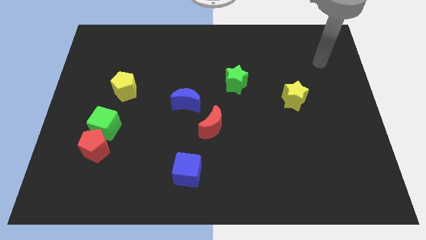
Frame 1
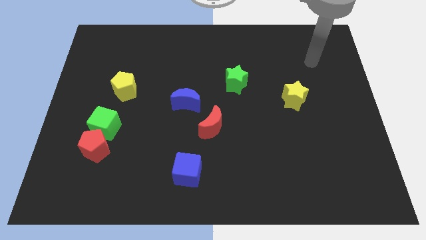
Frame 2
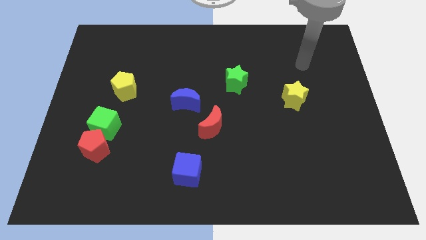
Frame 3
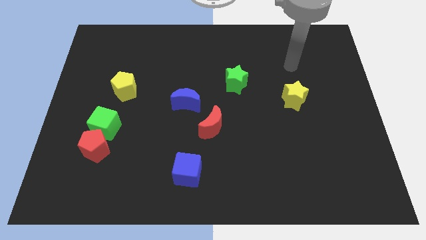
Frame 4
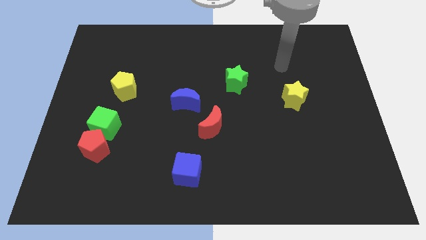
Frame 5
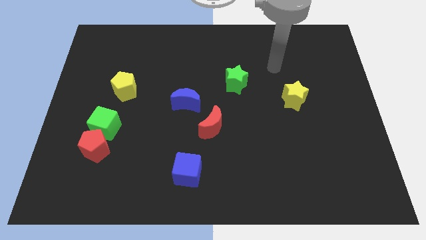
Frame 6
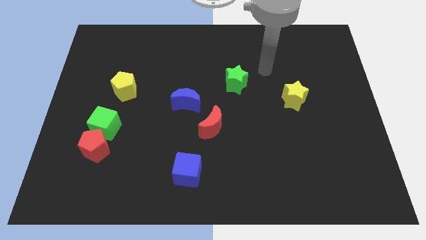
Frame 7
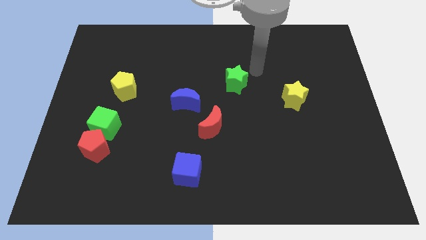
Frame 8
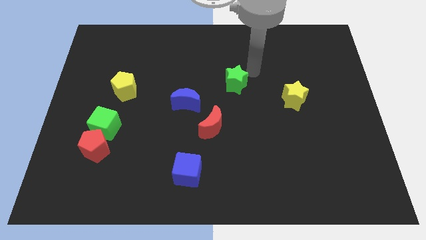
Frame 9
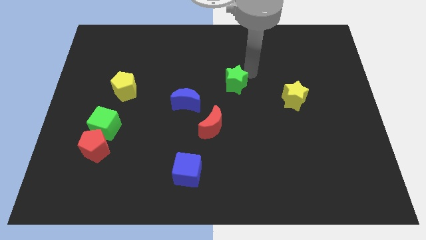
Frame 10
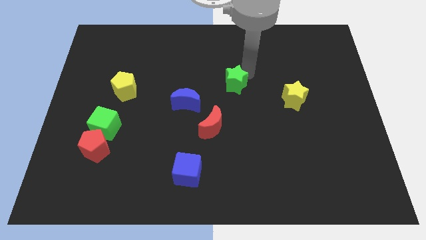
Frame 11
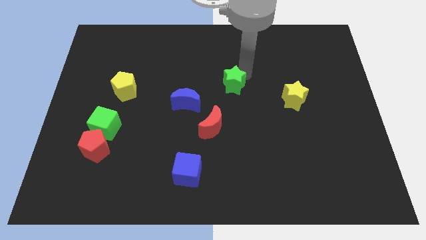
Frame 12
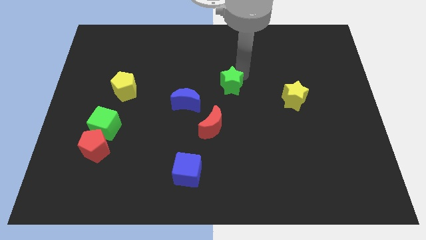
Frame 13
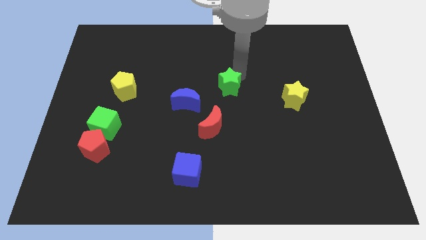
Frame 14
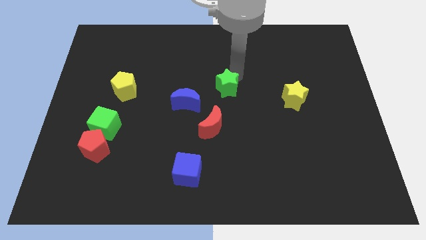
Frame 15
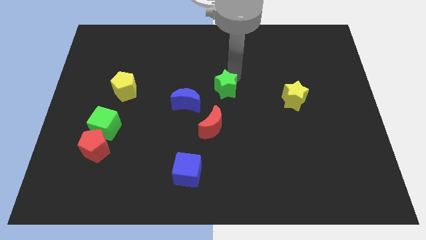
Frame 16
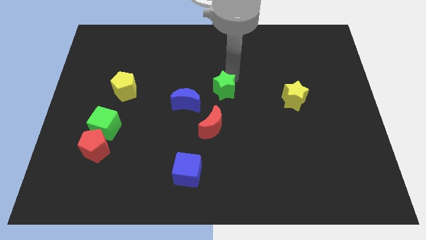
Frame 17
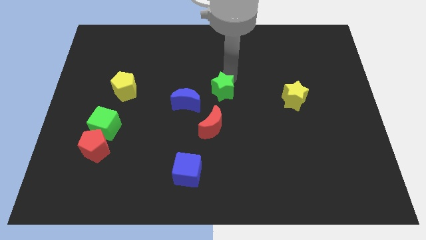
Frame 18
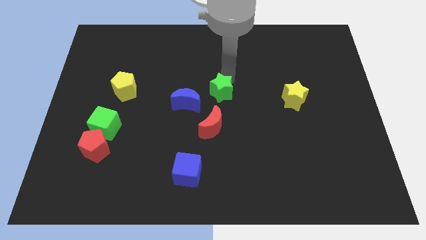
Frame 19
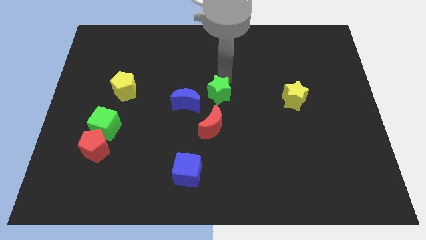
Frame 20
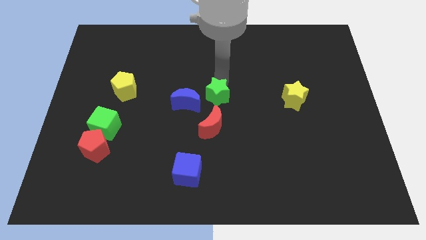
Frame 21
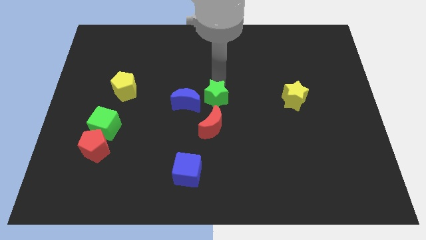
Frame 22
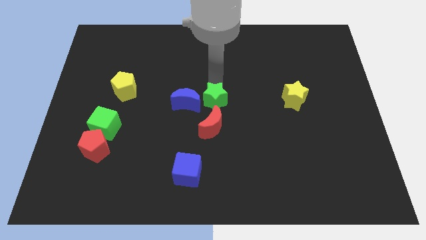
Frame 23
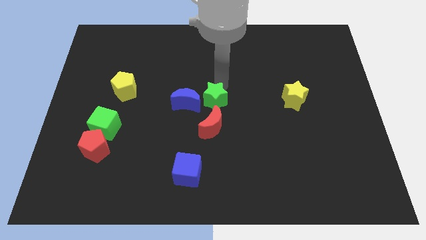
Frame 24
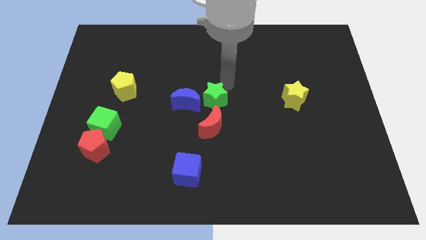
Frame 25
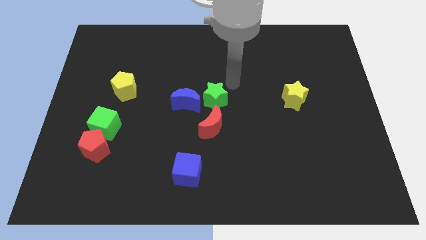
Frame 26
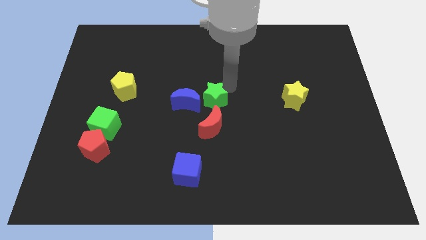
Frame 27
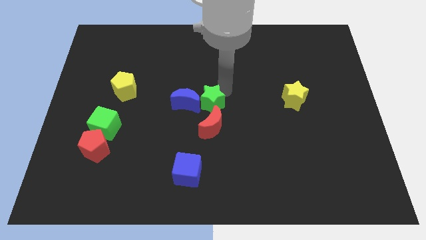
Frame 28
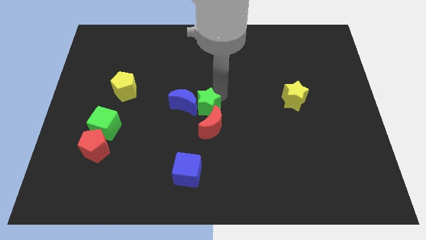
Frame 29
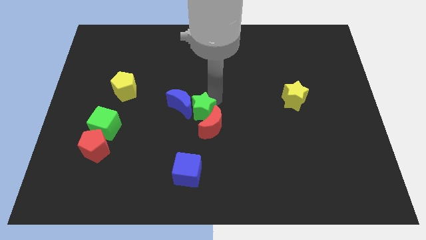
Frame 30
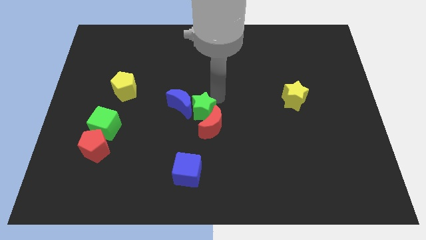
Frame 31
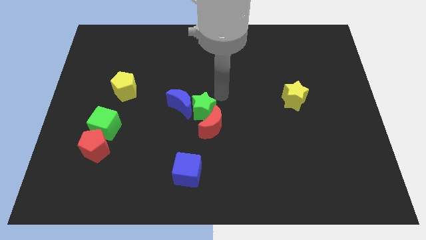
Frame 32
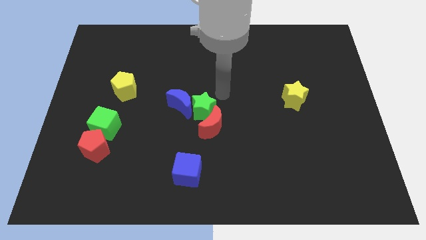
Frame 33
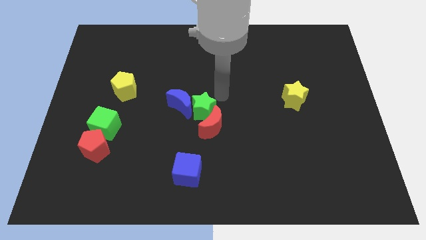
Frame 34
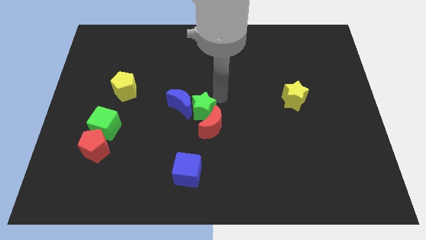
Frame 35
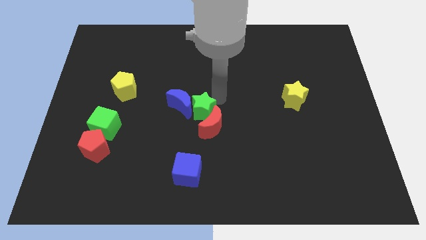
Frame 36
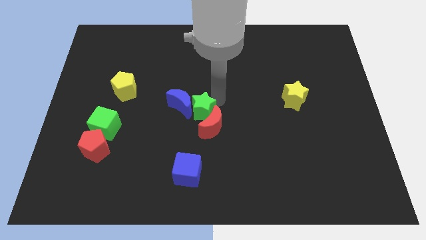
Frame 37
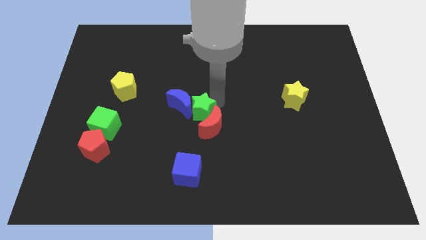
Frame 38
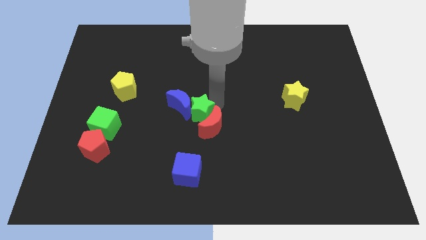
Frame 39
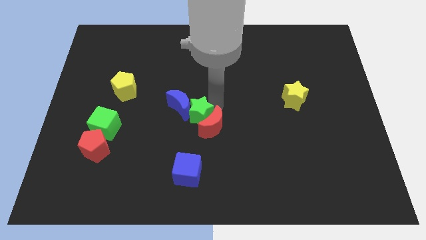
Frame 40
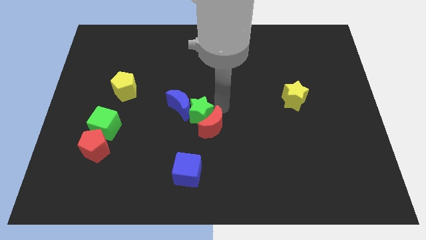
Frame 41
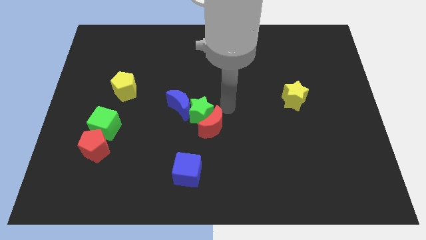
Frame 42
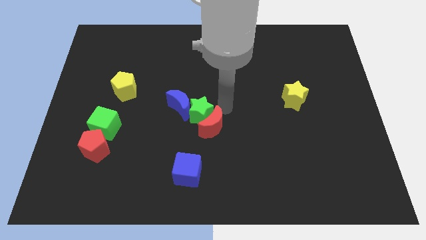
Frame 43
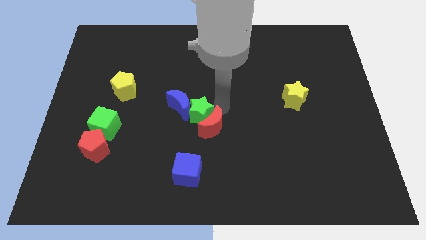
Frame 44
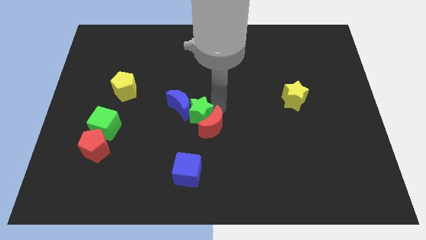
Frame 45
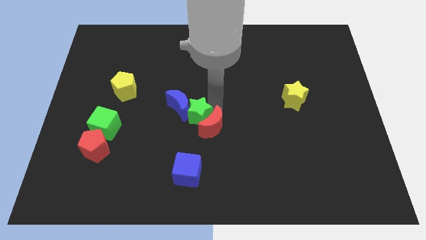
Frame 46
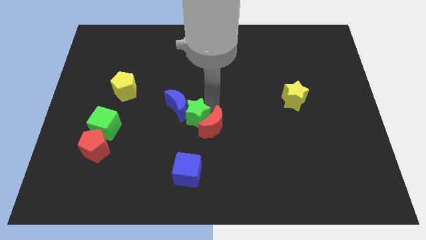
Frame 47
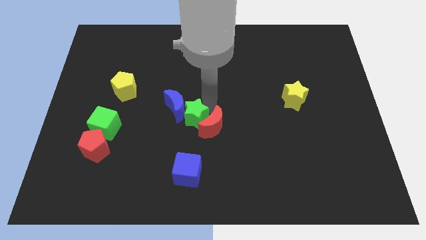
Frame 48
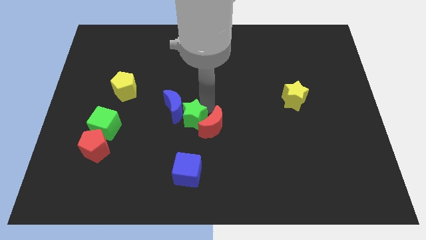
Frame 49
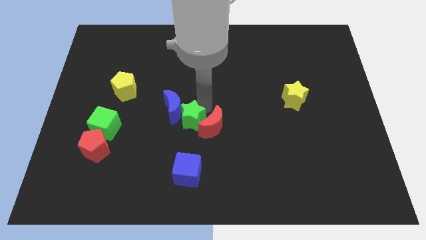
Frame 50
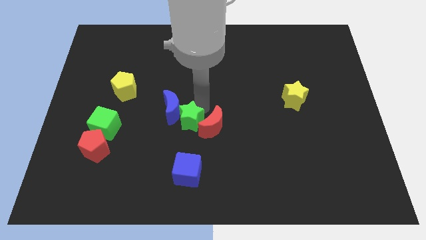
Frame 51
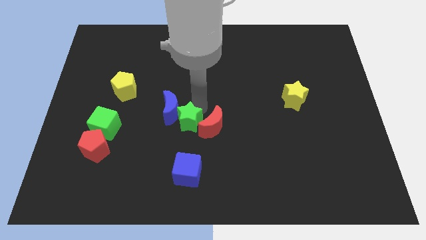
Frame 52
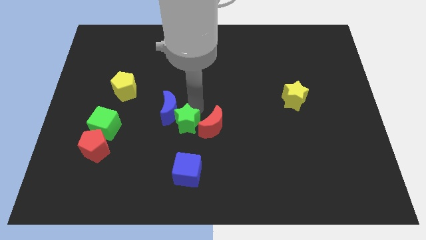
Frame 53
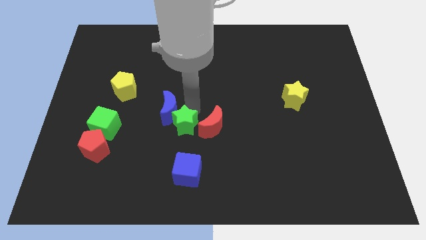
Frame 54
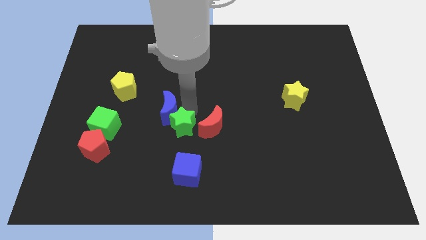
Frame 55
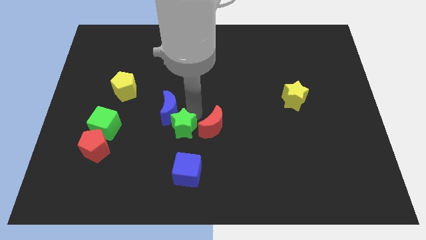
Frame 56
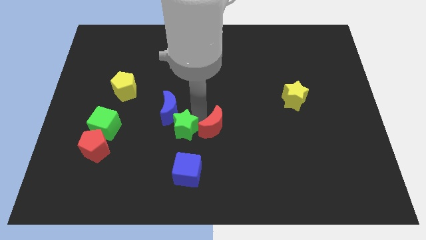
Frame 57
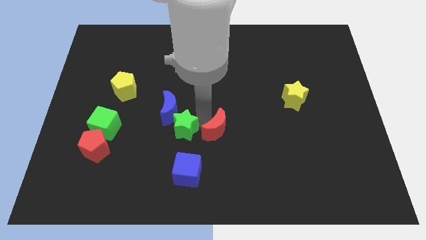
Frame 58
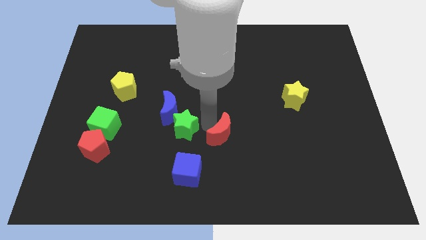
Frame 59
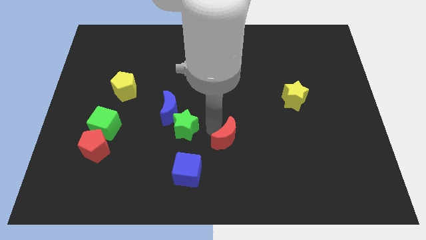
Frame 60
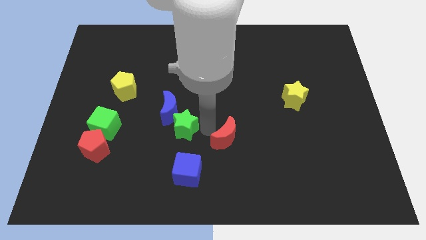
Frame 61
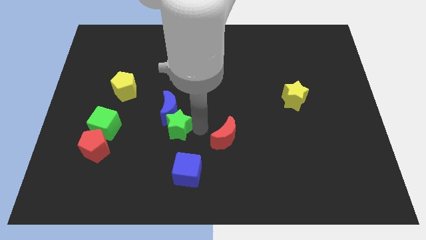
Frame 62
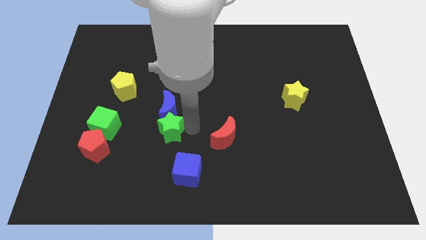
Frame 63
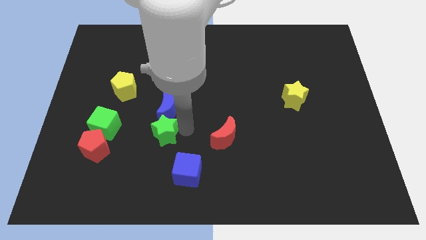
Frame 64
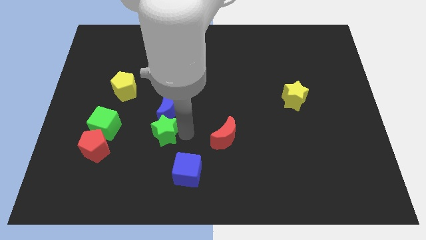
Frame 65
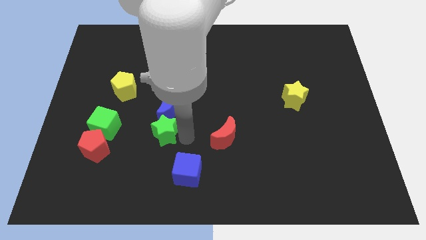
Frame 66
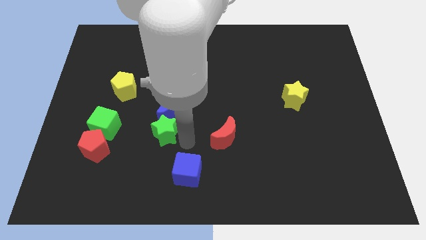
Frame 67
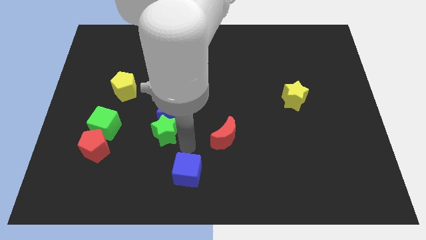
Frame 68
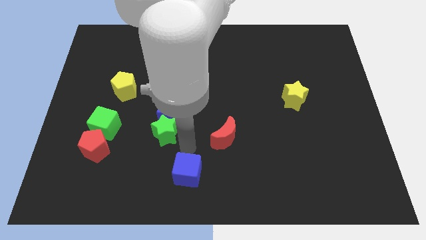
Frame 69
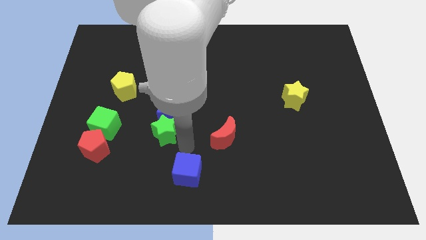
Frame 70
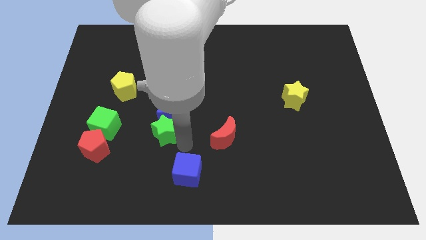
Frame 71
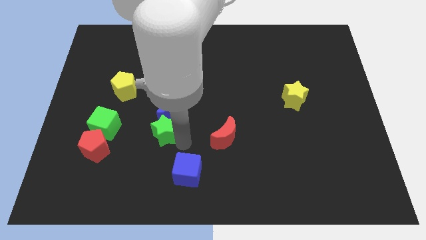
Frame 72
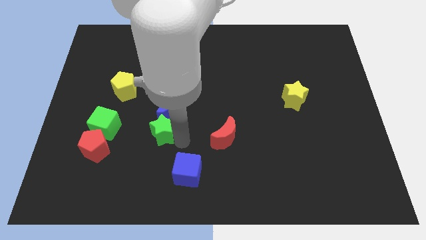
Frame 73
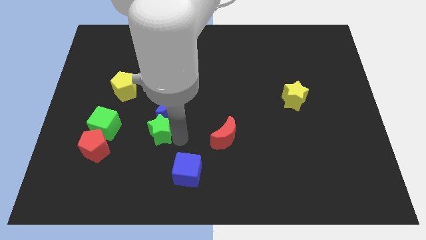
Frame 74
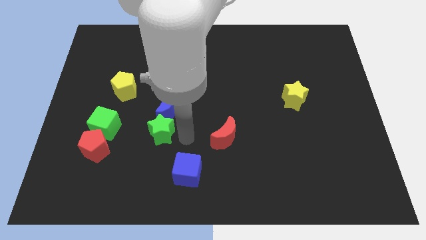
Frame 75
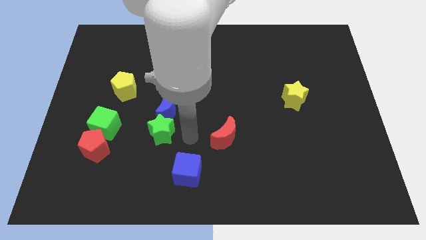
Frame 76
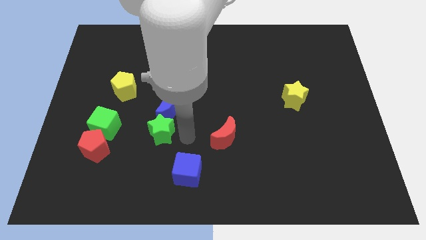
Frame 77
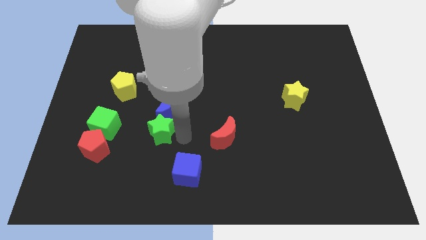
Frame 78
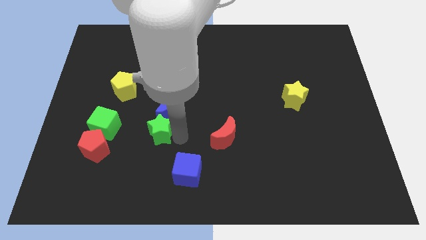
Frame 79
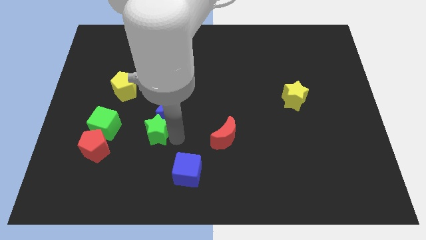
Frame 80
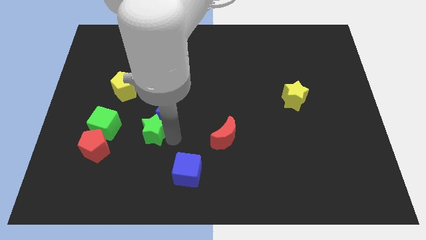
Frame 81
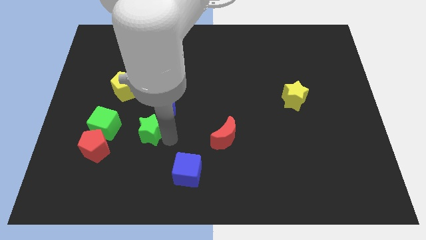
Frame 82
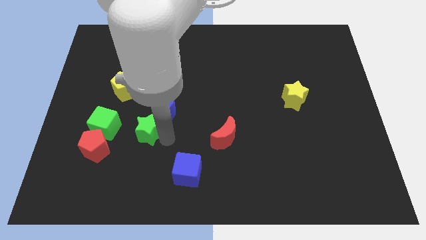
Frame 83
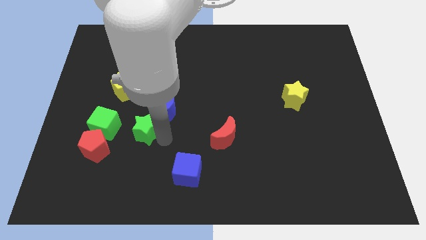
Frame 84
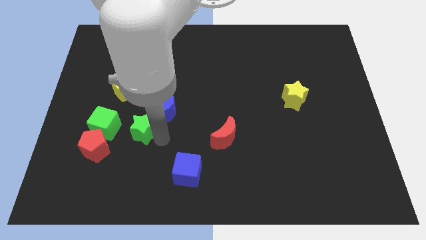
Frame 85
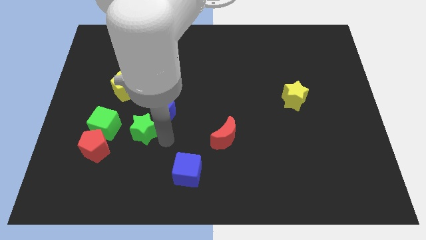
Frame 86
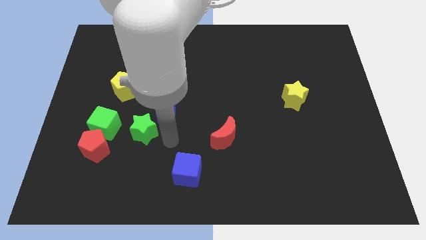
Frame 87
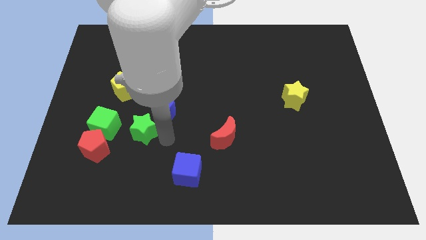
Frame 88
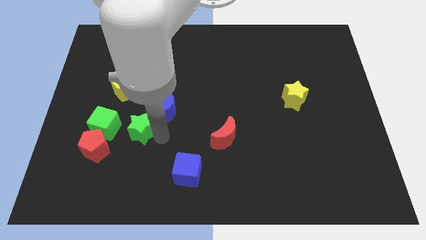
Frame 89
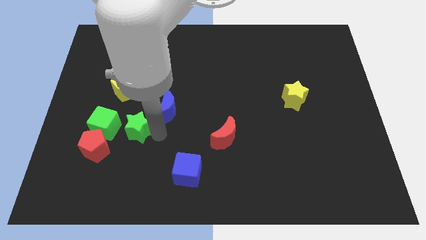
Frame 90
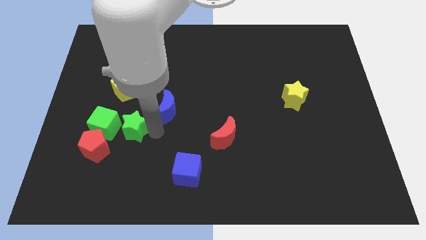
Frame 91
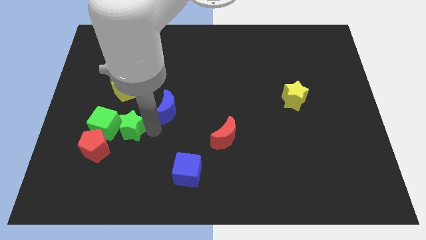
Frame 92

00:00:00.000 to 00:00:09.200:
push the green star towards the green cube
